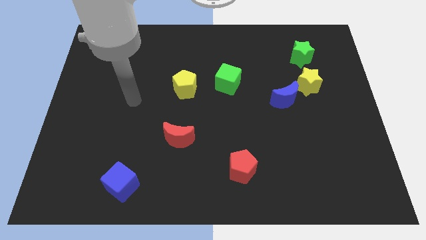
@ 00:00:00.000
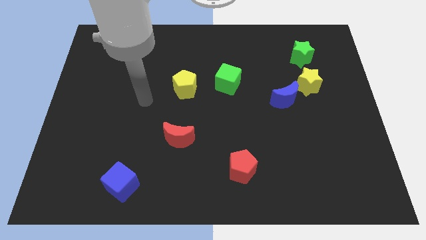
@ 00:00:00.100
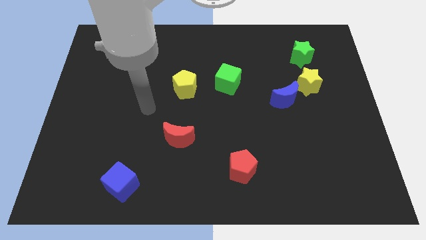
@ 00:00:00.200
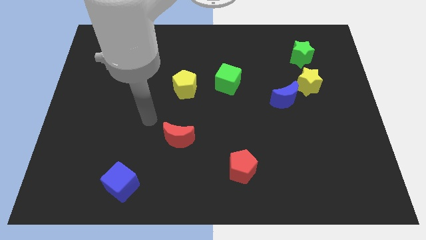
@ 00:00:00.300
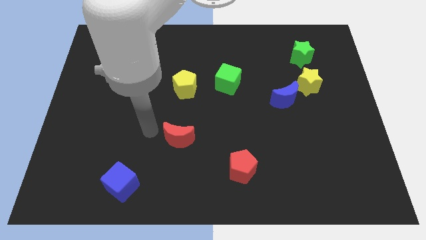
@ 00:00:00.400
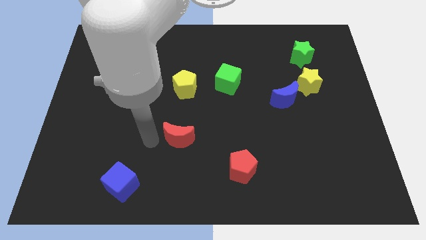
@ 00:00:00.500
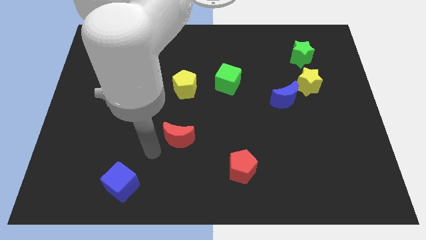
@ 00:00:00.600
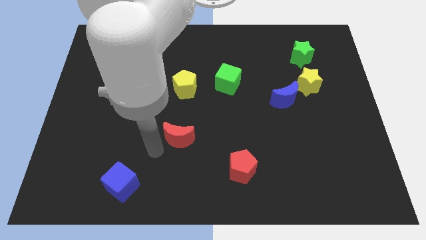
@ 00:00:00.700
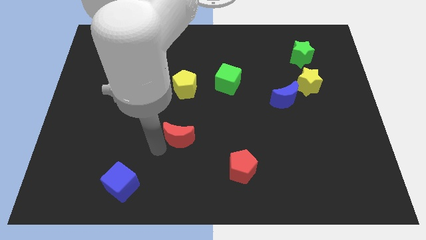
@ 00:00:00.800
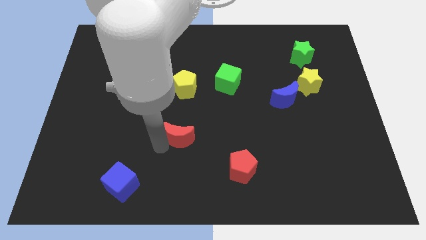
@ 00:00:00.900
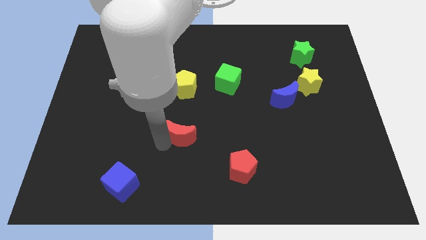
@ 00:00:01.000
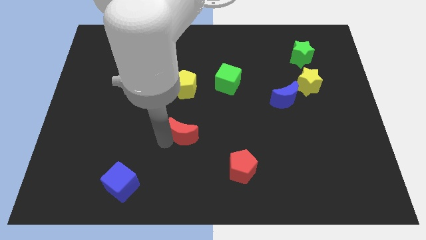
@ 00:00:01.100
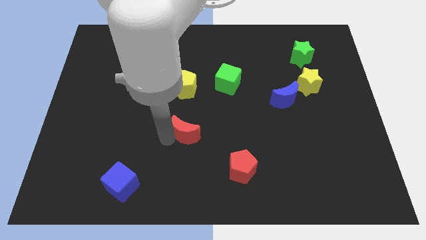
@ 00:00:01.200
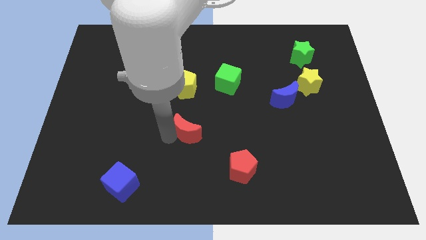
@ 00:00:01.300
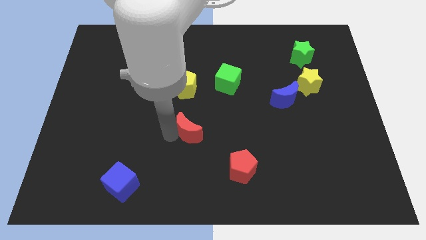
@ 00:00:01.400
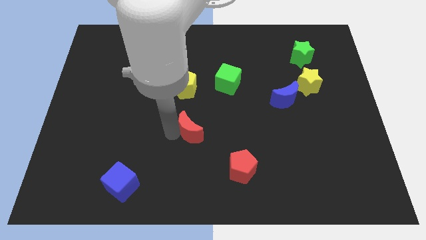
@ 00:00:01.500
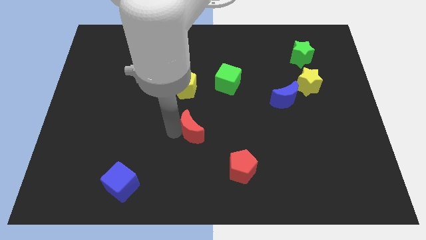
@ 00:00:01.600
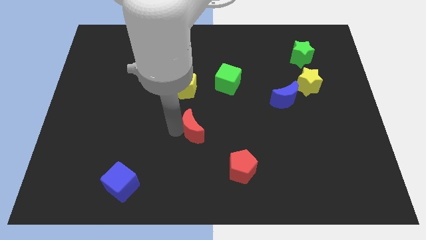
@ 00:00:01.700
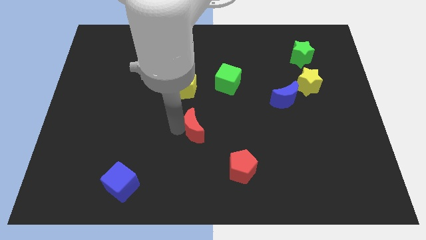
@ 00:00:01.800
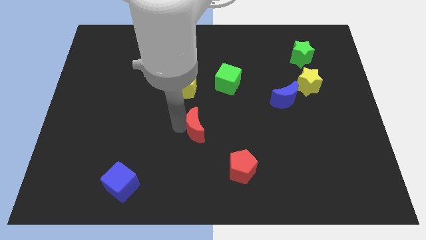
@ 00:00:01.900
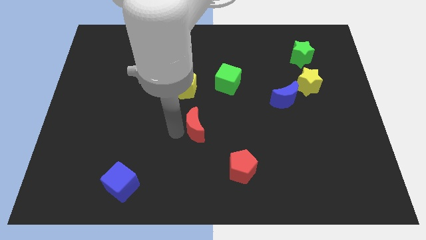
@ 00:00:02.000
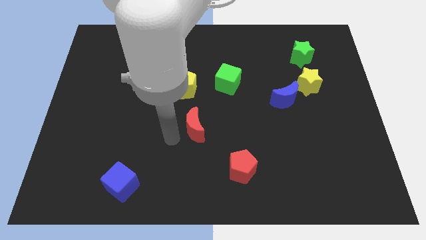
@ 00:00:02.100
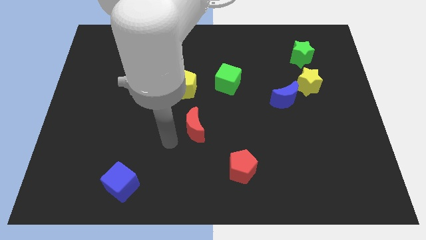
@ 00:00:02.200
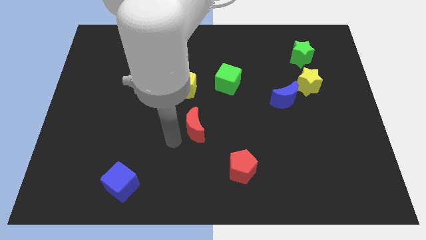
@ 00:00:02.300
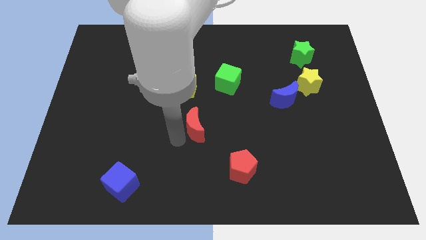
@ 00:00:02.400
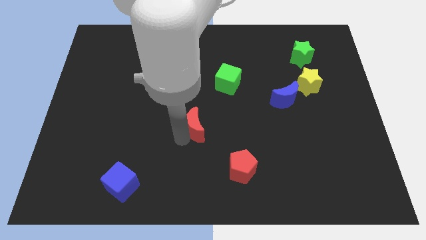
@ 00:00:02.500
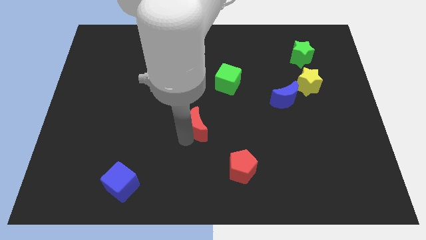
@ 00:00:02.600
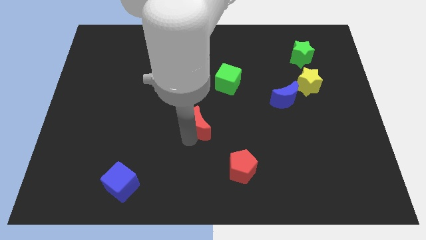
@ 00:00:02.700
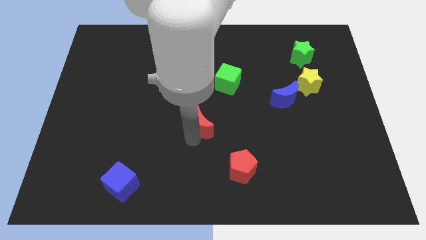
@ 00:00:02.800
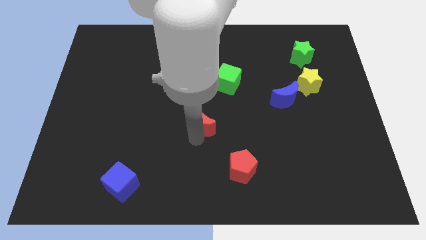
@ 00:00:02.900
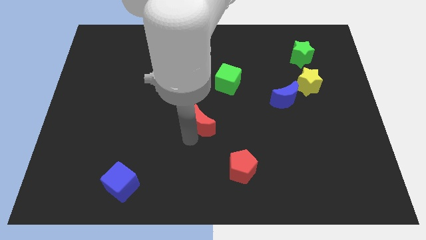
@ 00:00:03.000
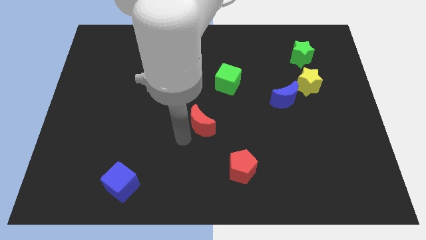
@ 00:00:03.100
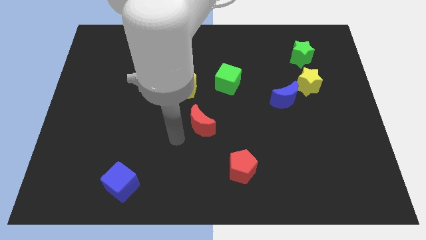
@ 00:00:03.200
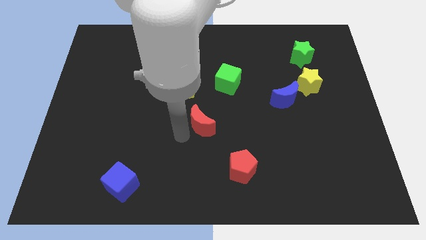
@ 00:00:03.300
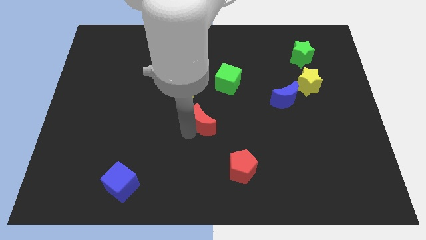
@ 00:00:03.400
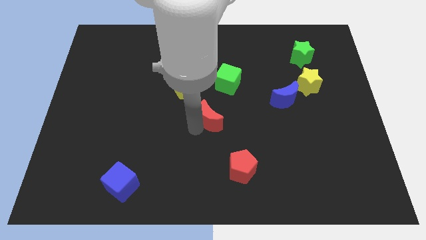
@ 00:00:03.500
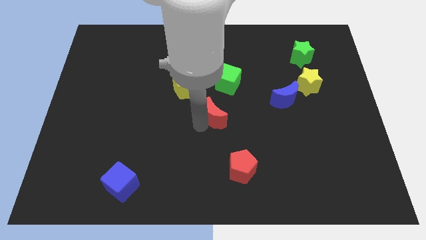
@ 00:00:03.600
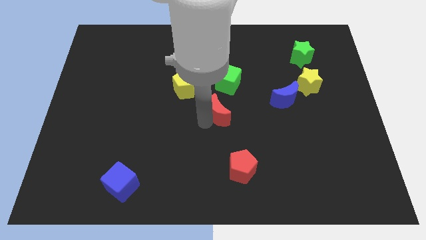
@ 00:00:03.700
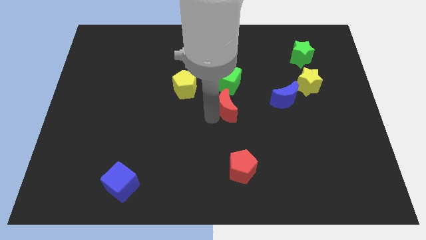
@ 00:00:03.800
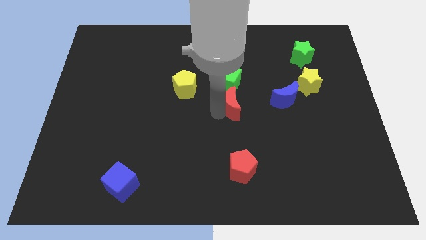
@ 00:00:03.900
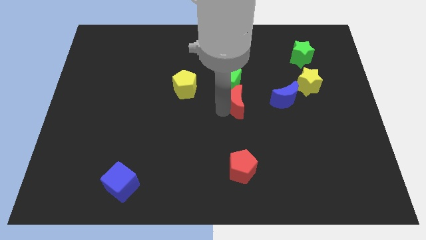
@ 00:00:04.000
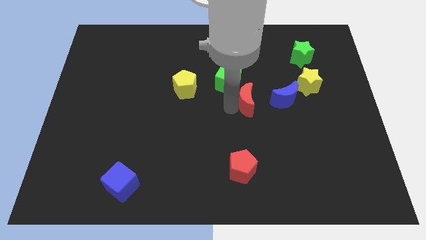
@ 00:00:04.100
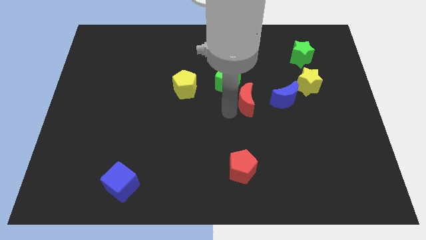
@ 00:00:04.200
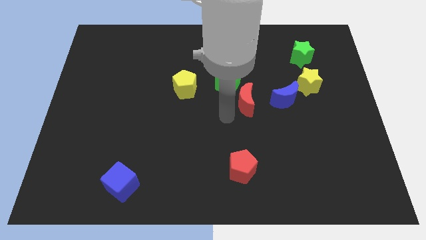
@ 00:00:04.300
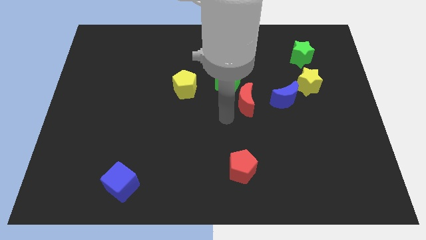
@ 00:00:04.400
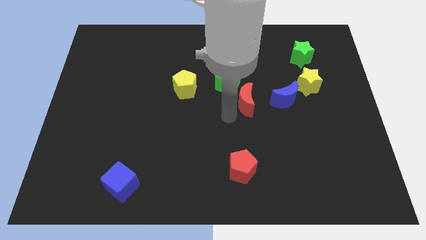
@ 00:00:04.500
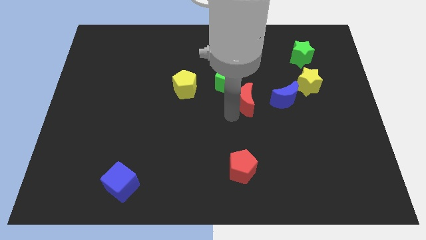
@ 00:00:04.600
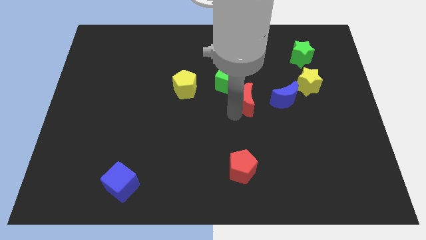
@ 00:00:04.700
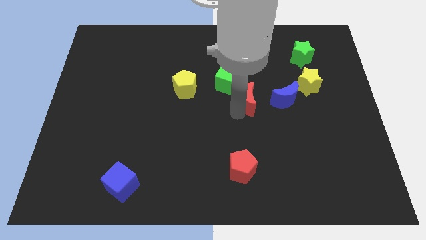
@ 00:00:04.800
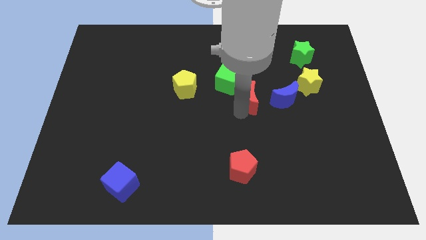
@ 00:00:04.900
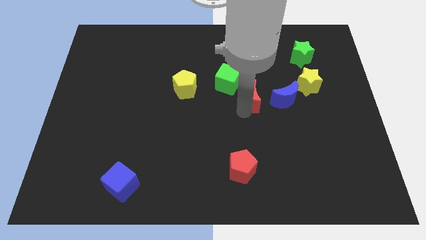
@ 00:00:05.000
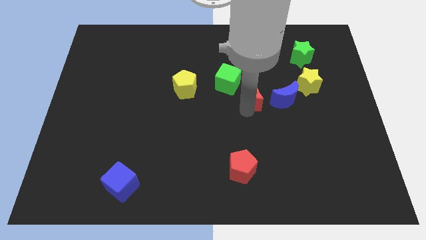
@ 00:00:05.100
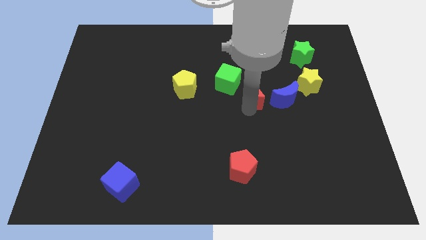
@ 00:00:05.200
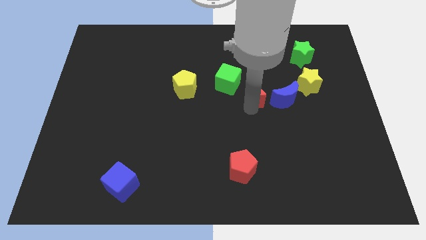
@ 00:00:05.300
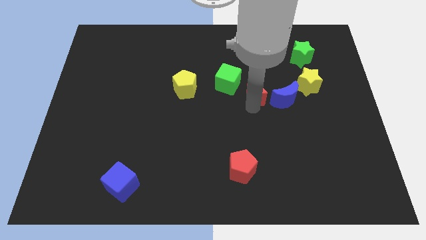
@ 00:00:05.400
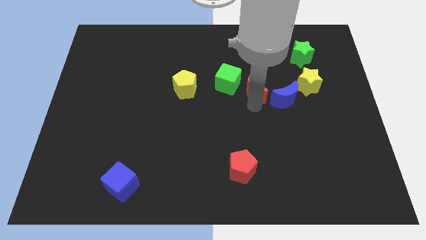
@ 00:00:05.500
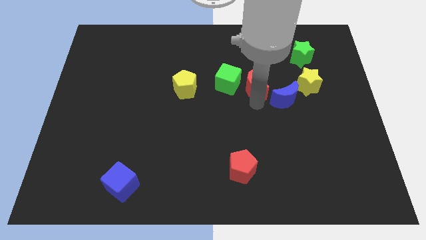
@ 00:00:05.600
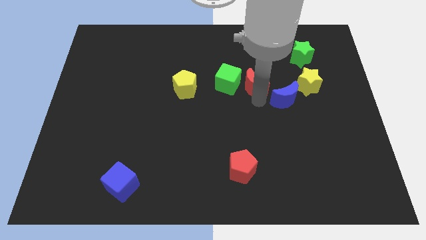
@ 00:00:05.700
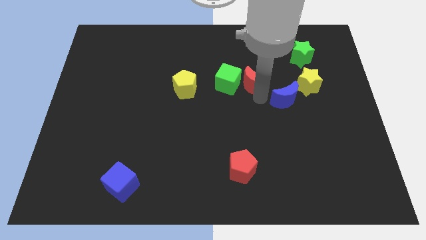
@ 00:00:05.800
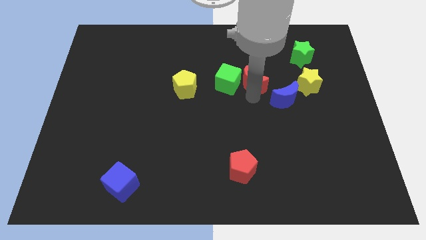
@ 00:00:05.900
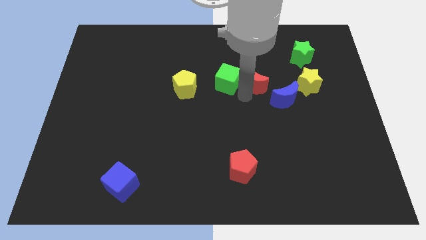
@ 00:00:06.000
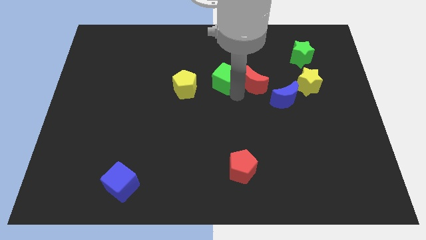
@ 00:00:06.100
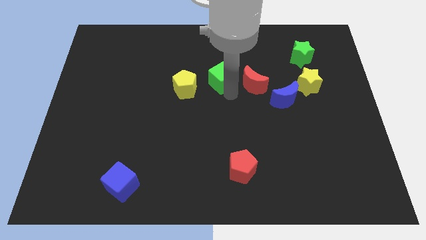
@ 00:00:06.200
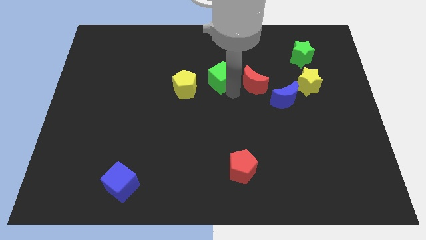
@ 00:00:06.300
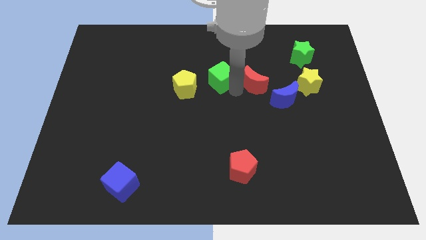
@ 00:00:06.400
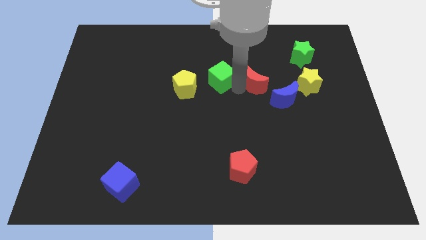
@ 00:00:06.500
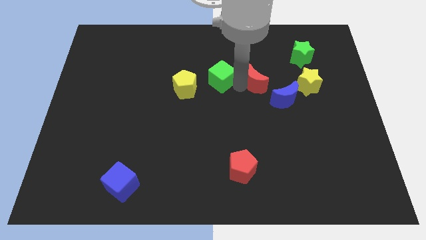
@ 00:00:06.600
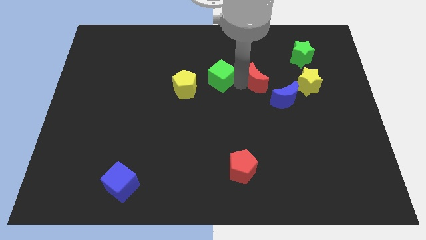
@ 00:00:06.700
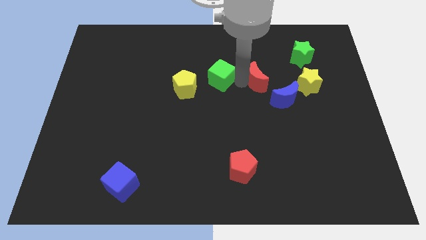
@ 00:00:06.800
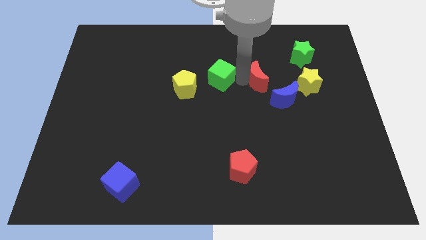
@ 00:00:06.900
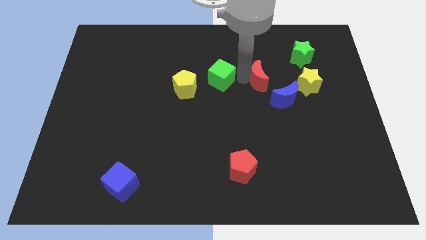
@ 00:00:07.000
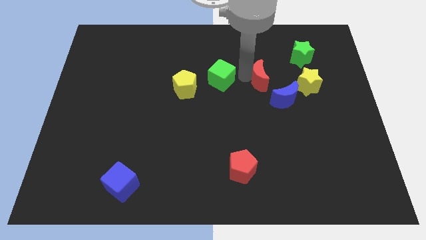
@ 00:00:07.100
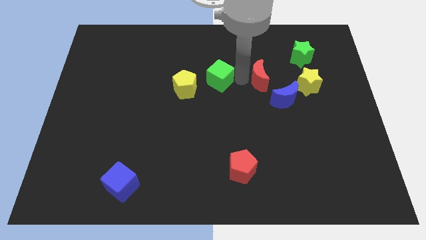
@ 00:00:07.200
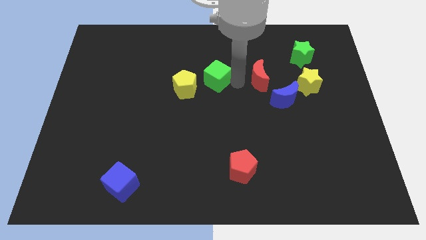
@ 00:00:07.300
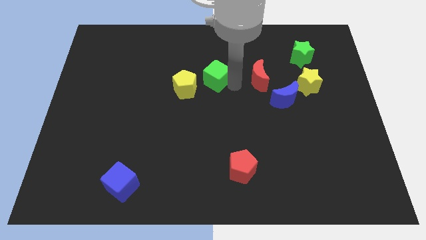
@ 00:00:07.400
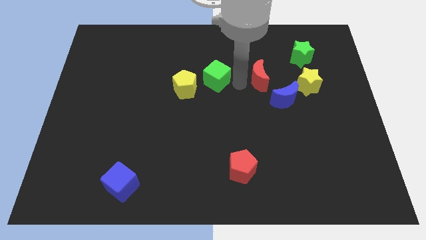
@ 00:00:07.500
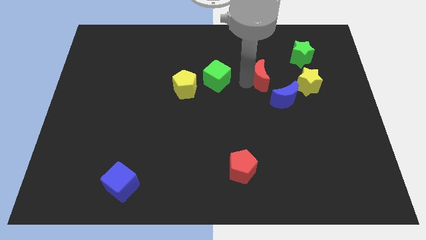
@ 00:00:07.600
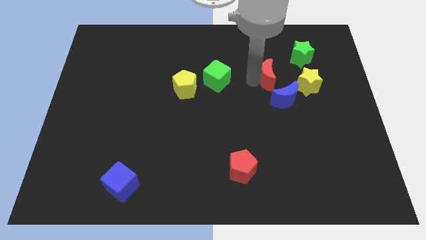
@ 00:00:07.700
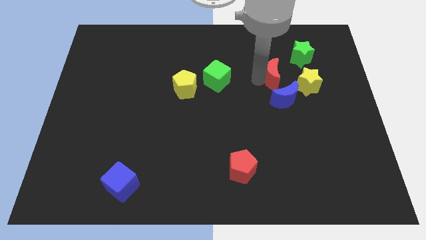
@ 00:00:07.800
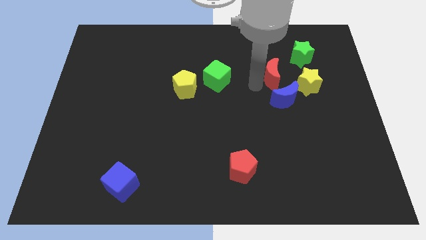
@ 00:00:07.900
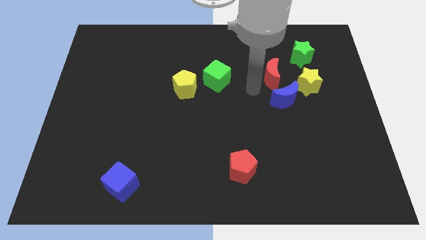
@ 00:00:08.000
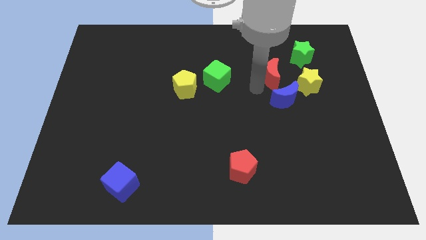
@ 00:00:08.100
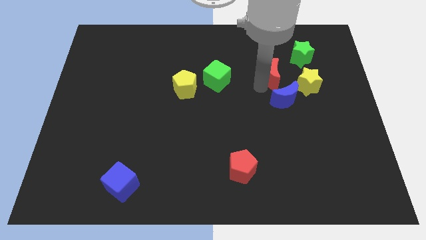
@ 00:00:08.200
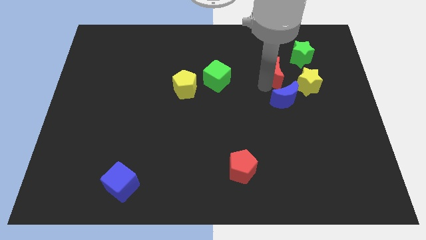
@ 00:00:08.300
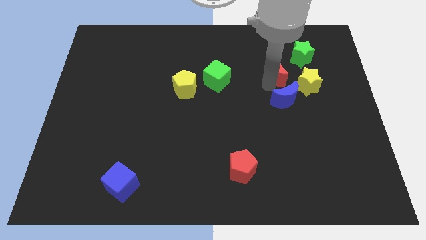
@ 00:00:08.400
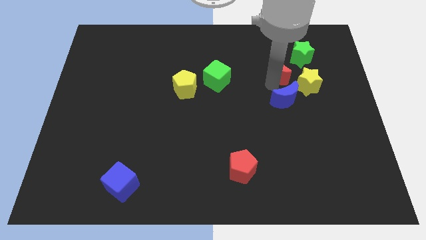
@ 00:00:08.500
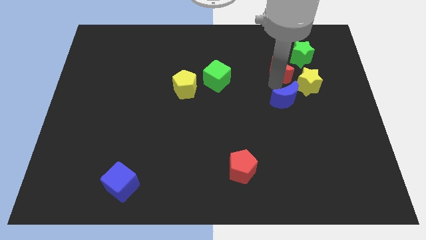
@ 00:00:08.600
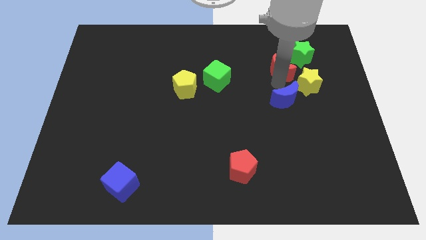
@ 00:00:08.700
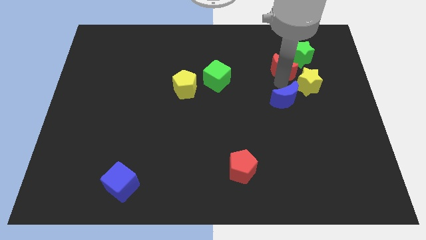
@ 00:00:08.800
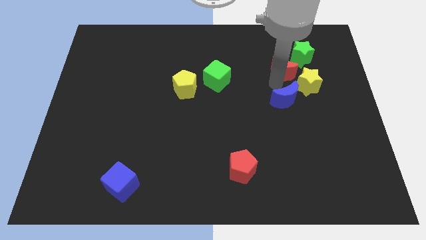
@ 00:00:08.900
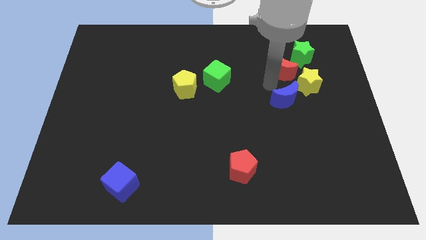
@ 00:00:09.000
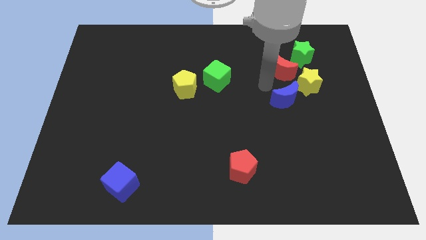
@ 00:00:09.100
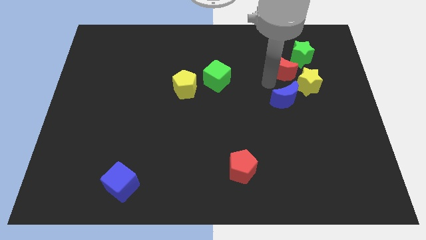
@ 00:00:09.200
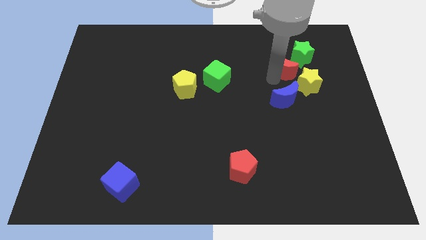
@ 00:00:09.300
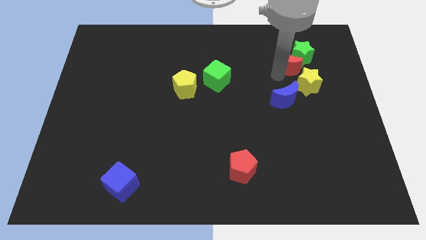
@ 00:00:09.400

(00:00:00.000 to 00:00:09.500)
move the red moon next to the green star
